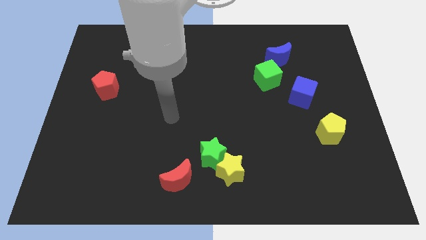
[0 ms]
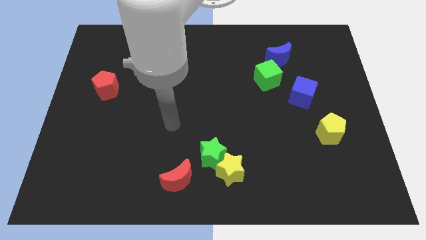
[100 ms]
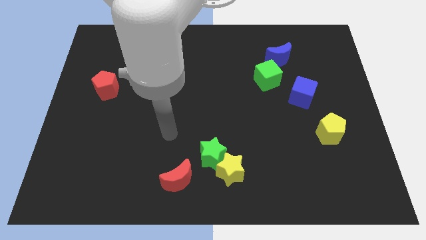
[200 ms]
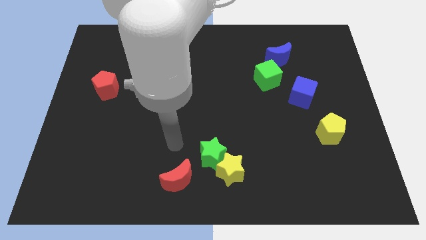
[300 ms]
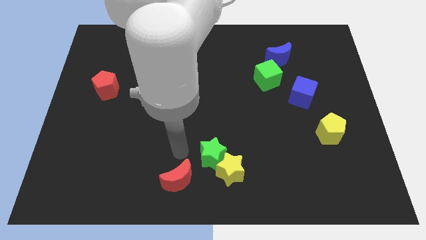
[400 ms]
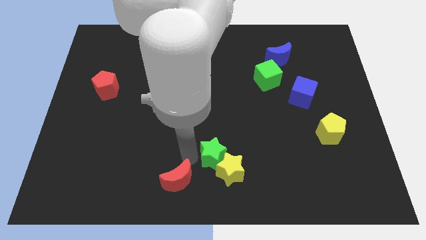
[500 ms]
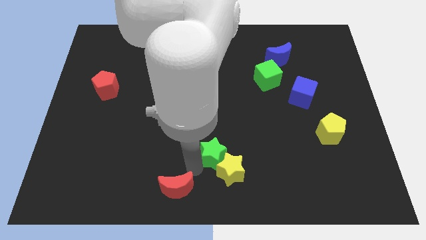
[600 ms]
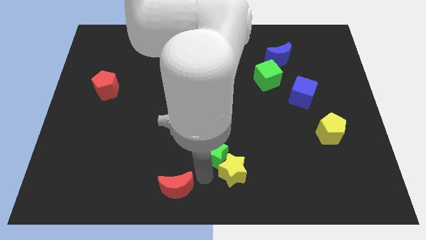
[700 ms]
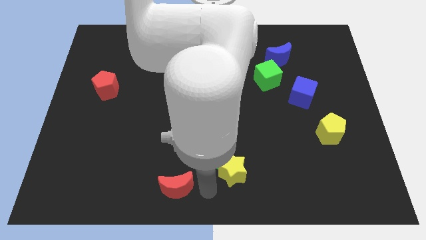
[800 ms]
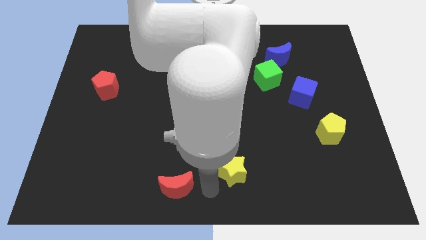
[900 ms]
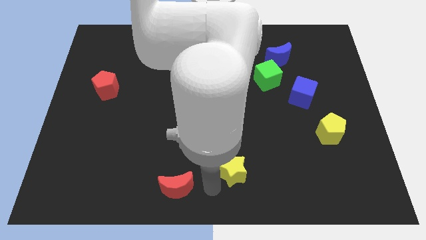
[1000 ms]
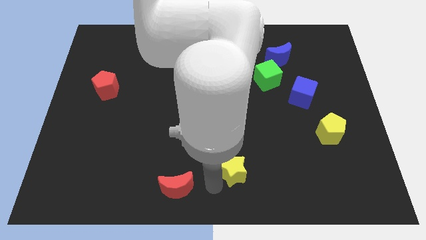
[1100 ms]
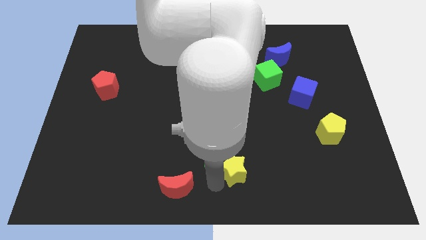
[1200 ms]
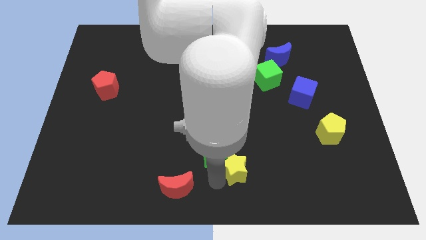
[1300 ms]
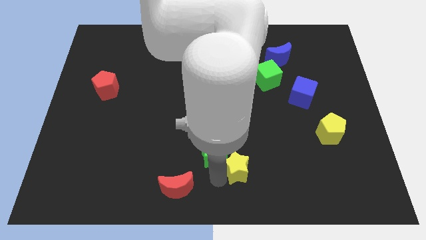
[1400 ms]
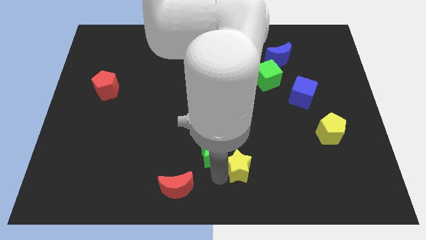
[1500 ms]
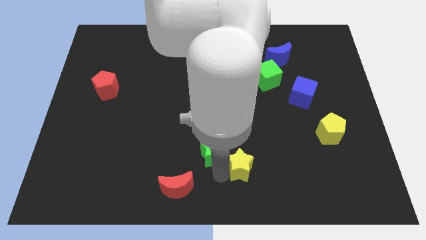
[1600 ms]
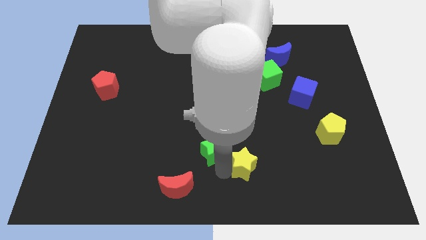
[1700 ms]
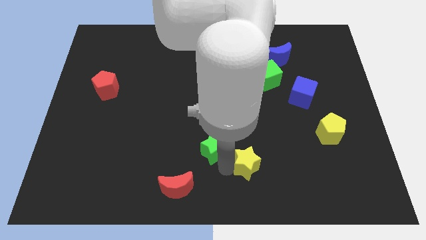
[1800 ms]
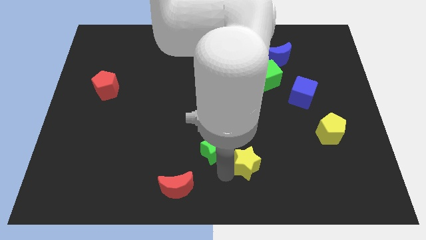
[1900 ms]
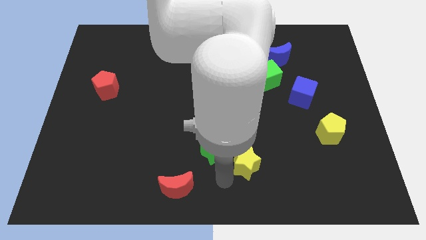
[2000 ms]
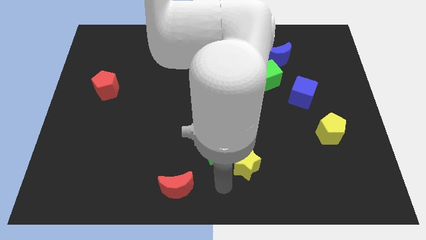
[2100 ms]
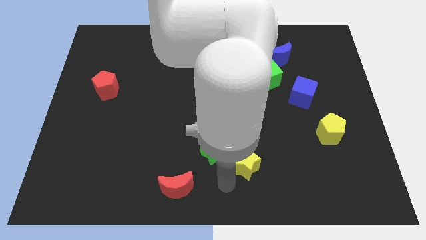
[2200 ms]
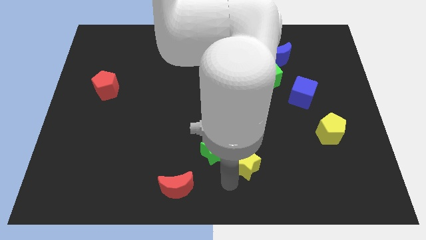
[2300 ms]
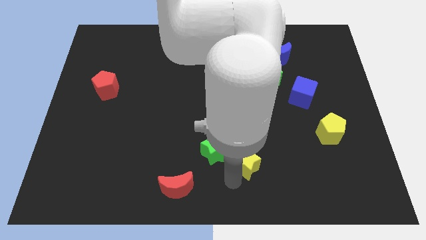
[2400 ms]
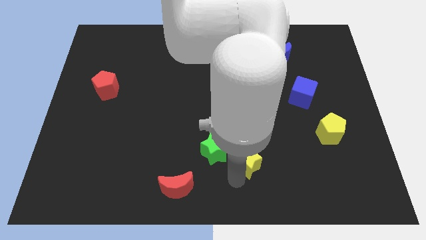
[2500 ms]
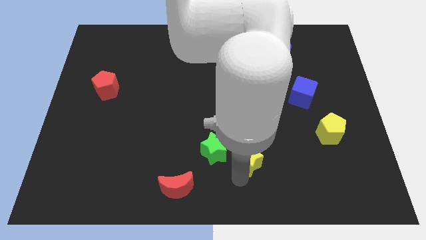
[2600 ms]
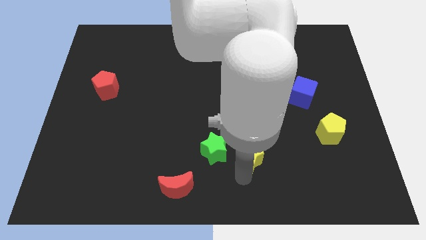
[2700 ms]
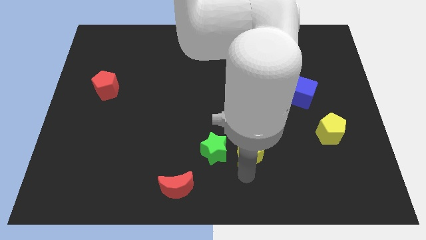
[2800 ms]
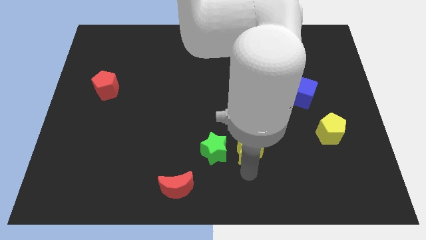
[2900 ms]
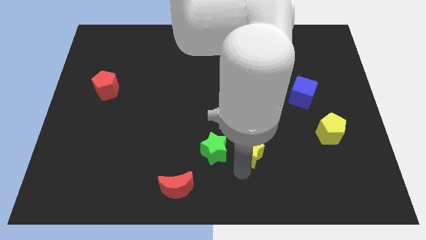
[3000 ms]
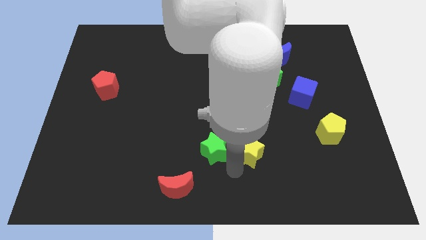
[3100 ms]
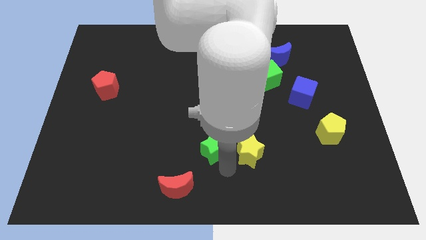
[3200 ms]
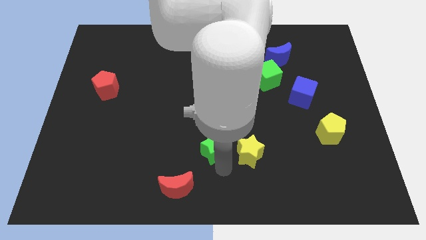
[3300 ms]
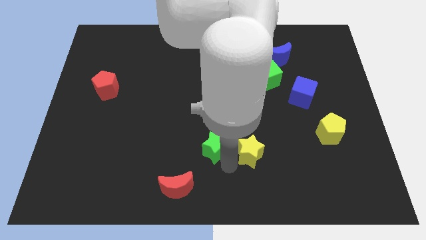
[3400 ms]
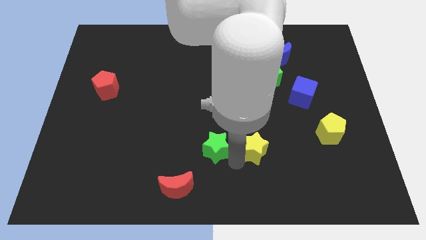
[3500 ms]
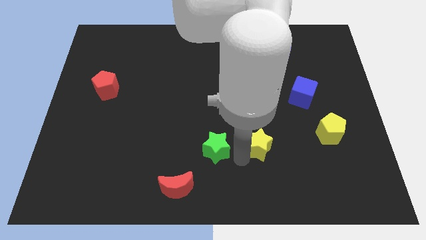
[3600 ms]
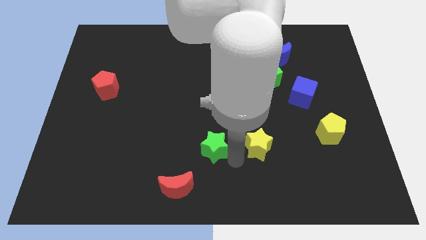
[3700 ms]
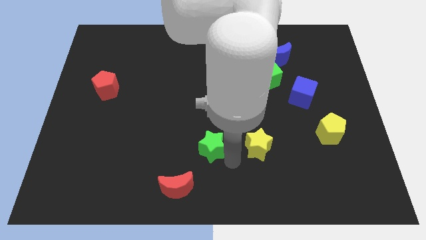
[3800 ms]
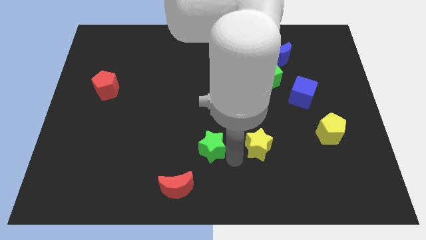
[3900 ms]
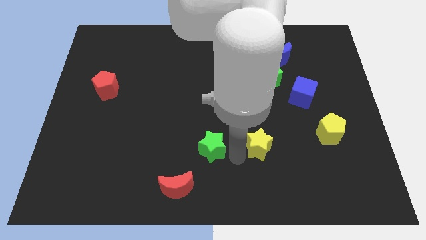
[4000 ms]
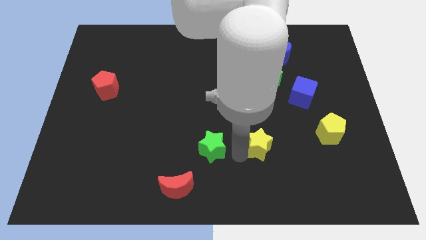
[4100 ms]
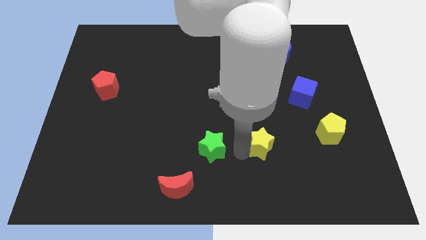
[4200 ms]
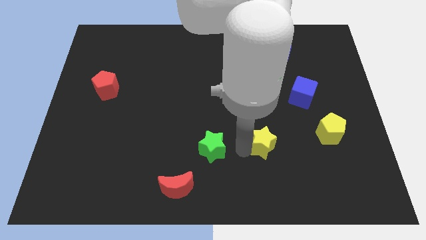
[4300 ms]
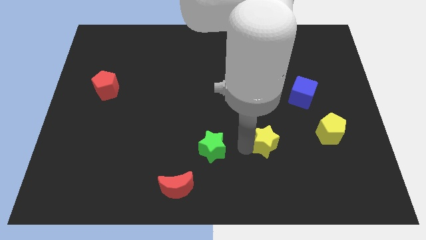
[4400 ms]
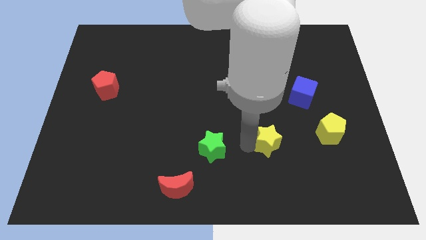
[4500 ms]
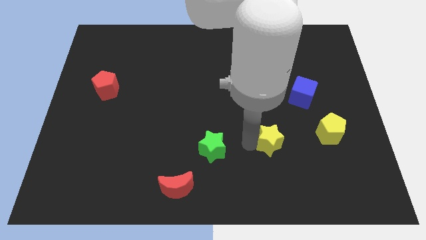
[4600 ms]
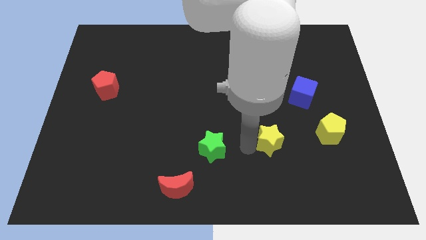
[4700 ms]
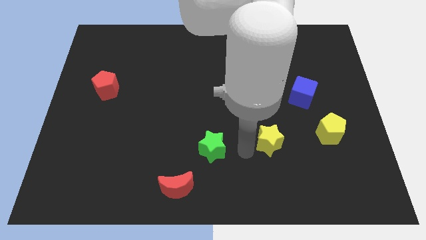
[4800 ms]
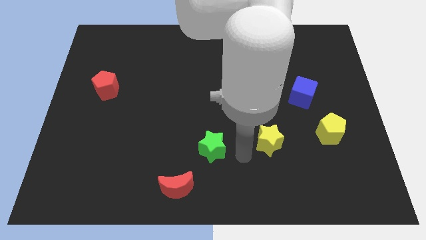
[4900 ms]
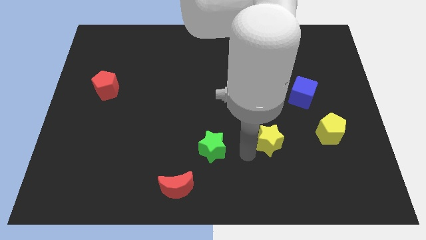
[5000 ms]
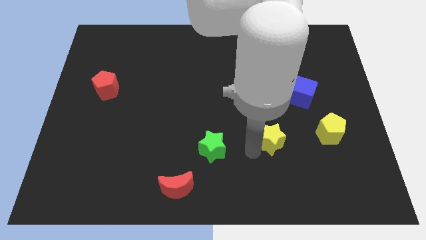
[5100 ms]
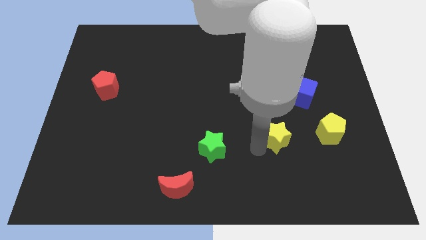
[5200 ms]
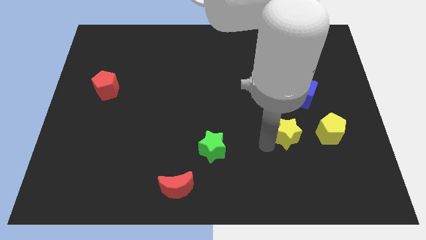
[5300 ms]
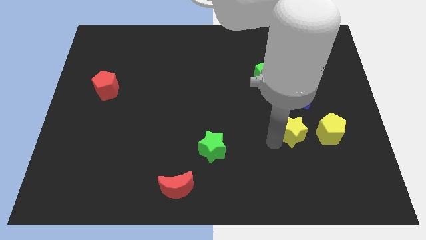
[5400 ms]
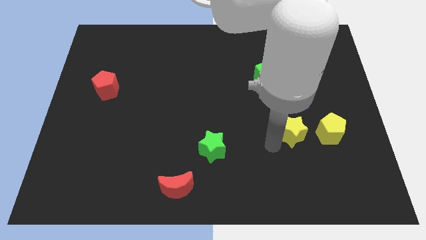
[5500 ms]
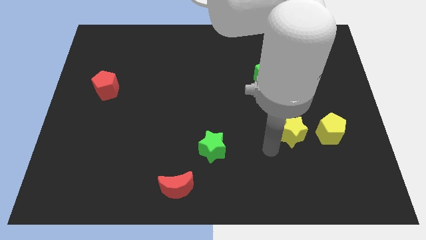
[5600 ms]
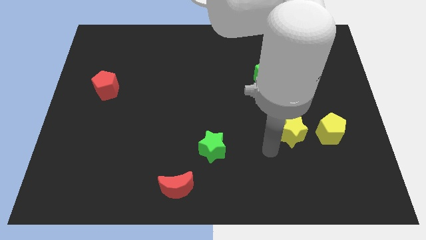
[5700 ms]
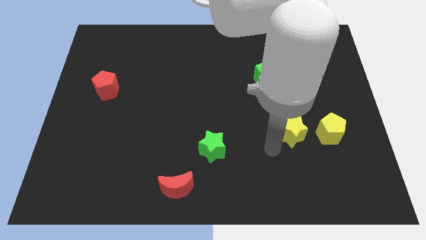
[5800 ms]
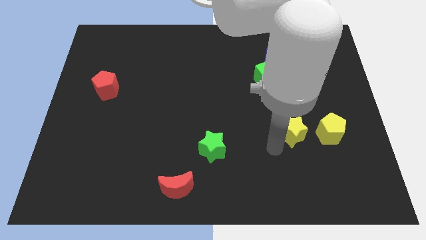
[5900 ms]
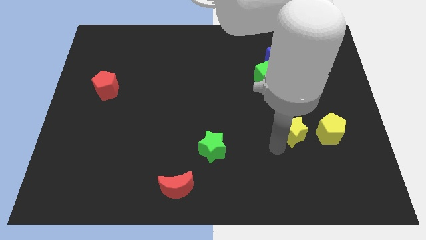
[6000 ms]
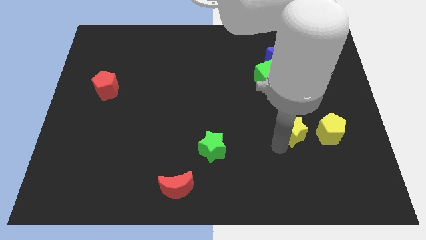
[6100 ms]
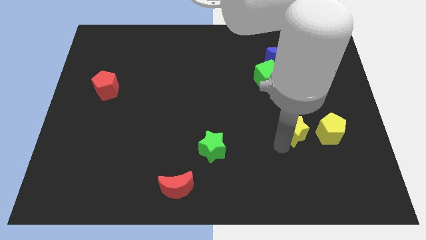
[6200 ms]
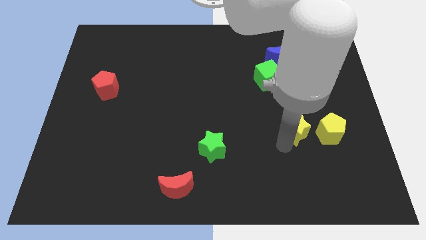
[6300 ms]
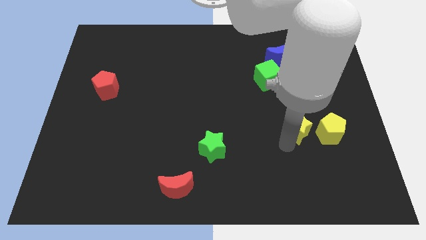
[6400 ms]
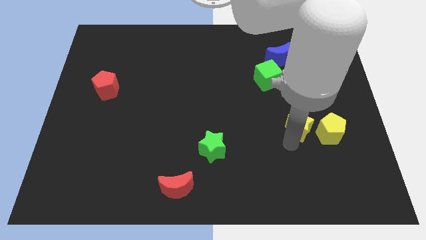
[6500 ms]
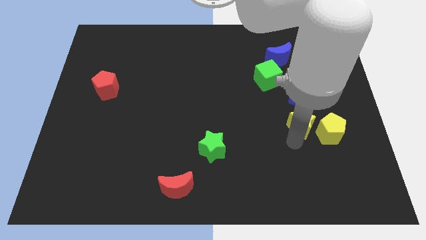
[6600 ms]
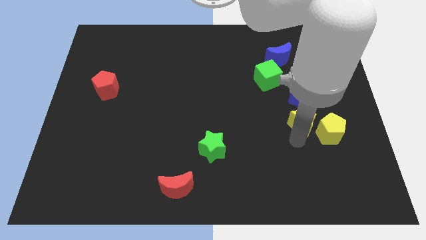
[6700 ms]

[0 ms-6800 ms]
push the yellow star diagonally upwards and to the right

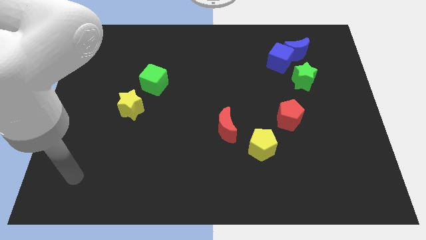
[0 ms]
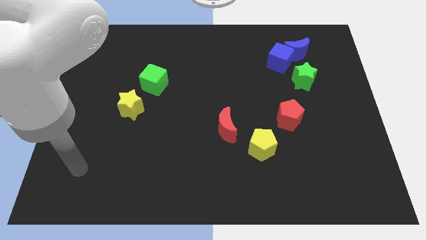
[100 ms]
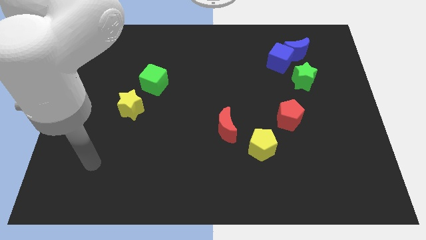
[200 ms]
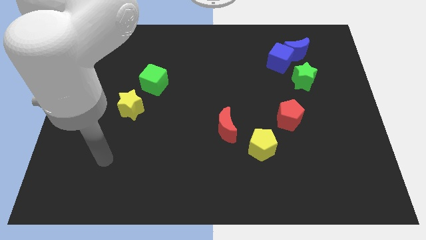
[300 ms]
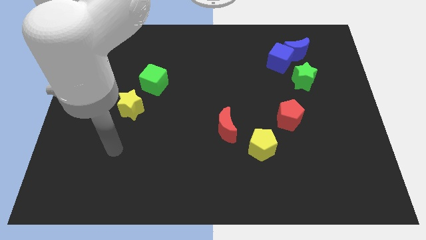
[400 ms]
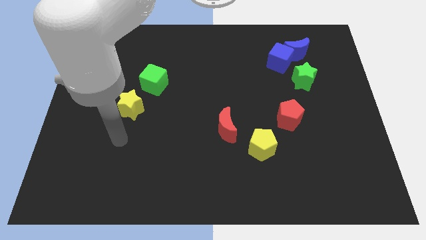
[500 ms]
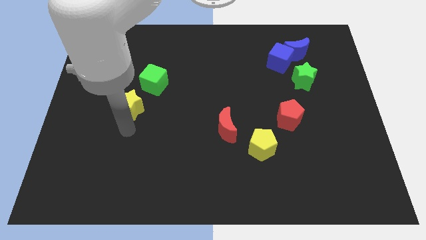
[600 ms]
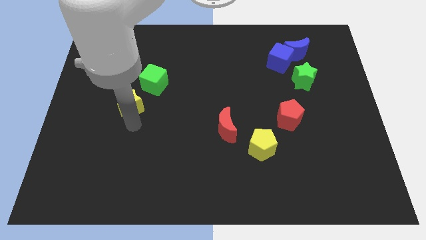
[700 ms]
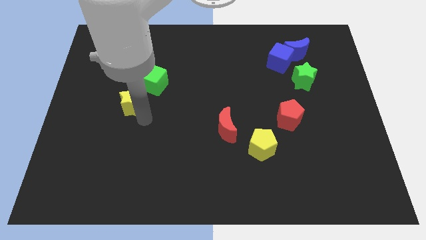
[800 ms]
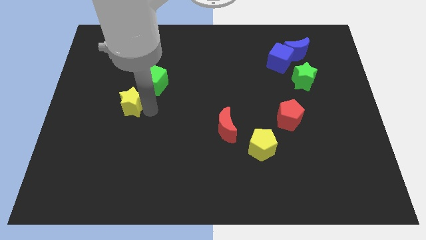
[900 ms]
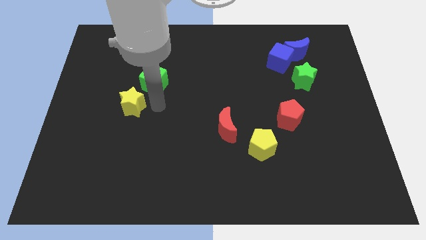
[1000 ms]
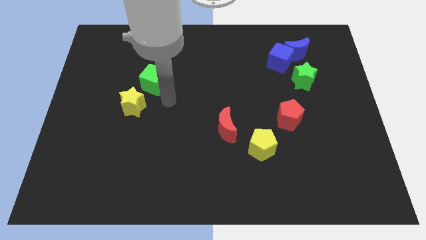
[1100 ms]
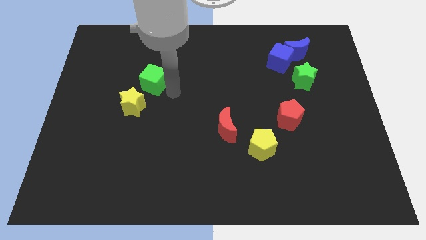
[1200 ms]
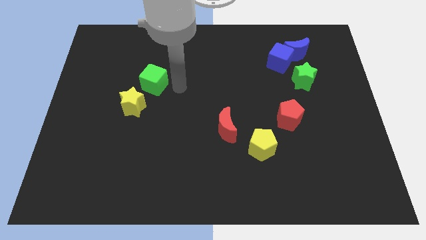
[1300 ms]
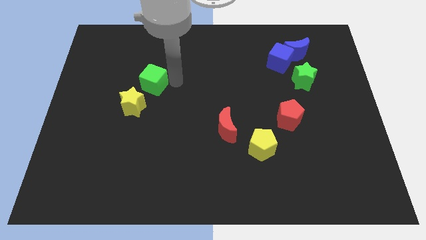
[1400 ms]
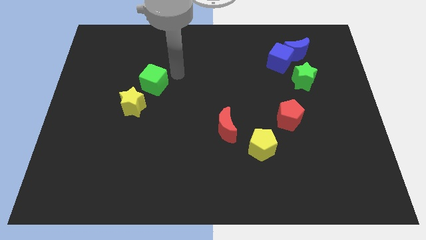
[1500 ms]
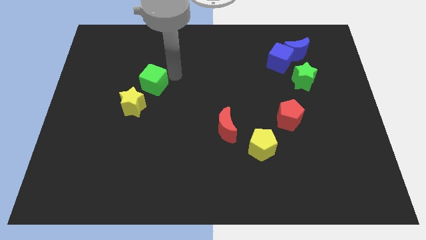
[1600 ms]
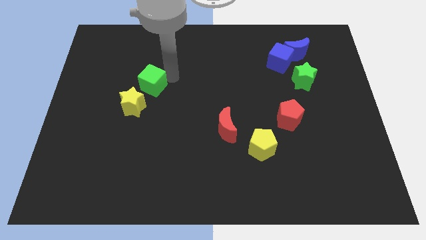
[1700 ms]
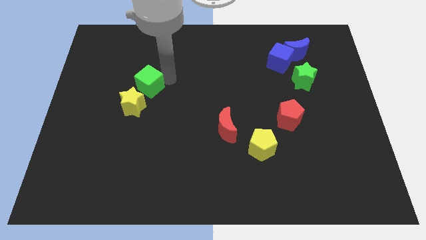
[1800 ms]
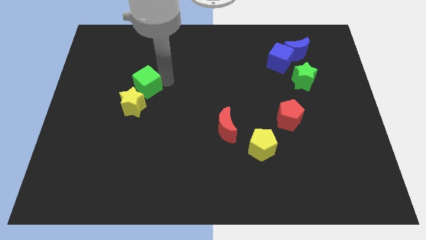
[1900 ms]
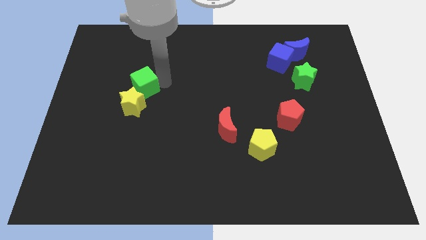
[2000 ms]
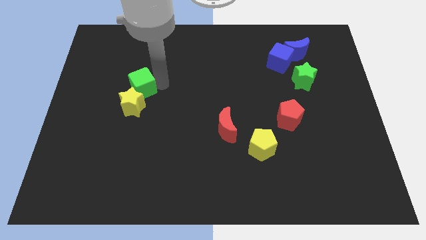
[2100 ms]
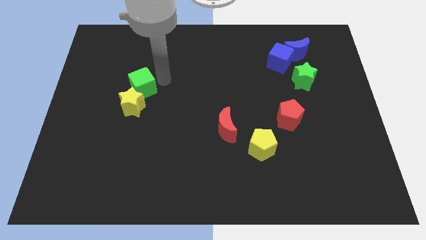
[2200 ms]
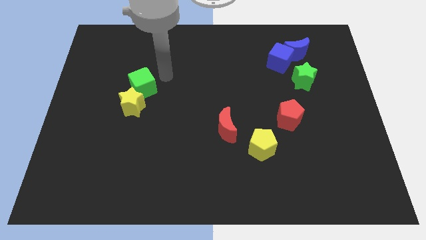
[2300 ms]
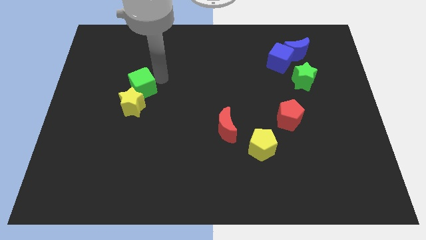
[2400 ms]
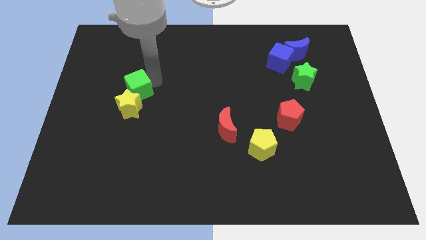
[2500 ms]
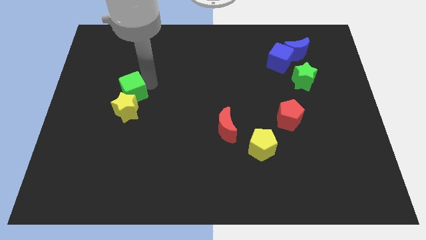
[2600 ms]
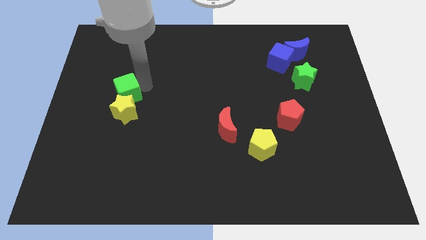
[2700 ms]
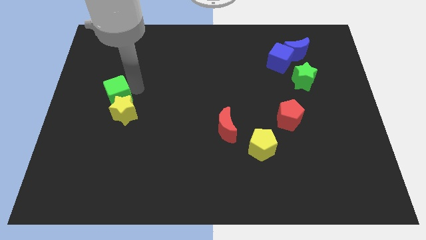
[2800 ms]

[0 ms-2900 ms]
move the green cube down and then left slightly
